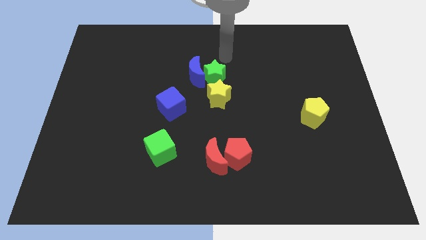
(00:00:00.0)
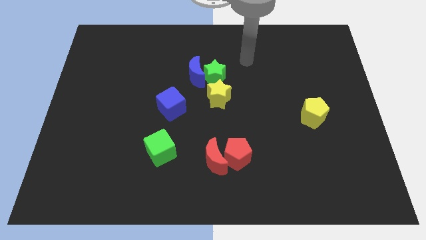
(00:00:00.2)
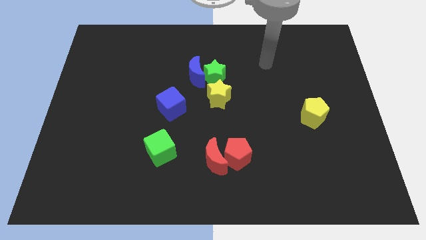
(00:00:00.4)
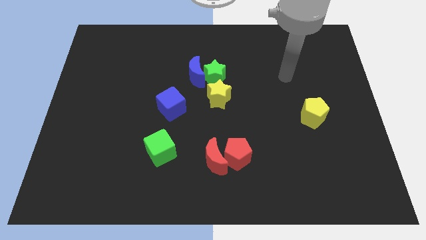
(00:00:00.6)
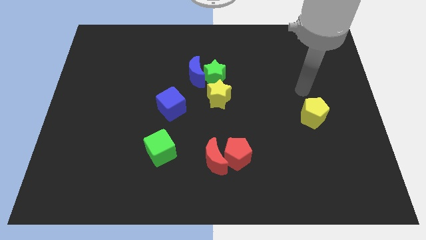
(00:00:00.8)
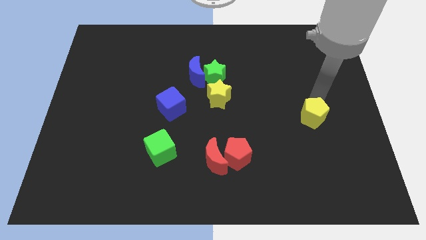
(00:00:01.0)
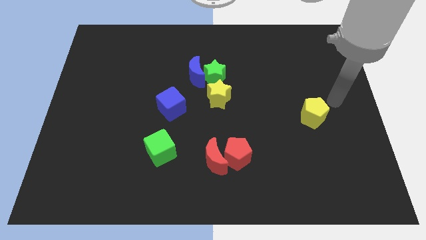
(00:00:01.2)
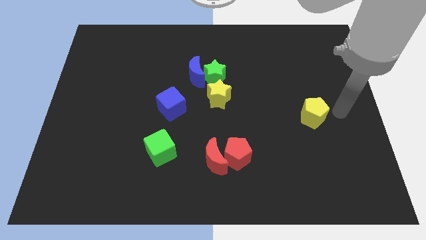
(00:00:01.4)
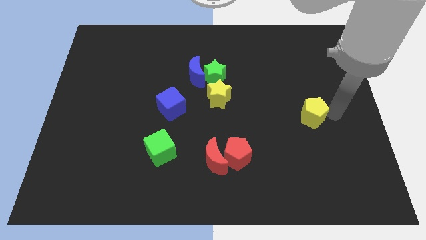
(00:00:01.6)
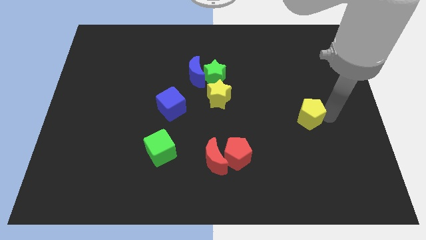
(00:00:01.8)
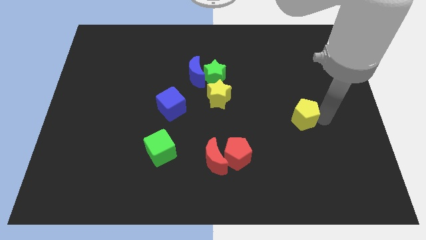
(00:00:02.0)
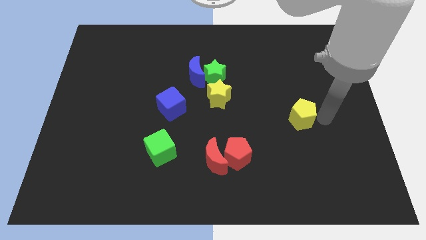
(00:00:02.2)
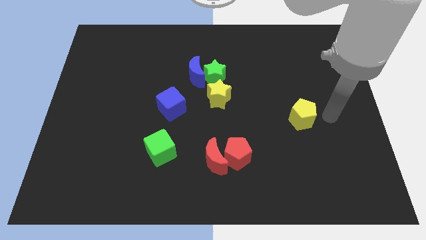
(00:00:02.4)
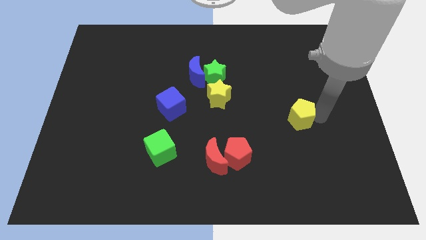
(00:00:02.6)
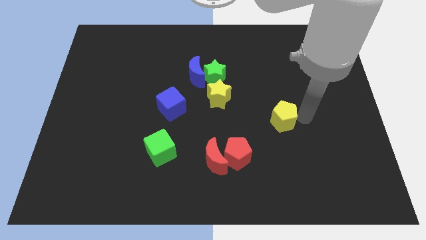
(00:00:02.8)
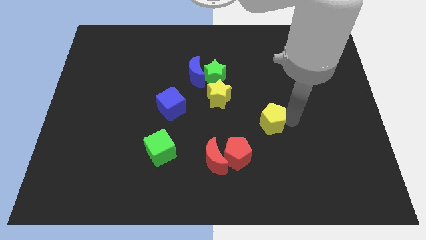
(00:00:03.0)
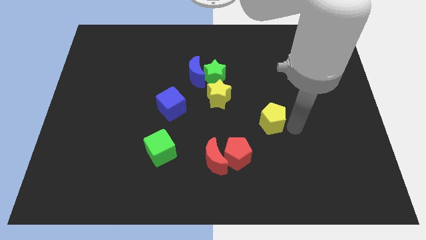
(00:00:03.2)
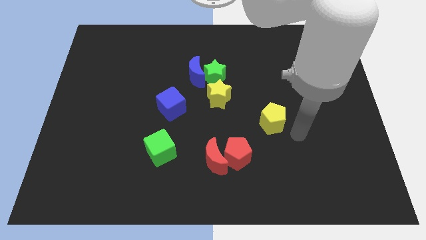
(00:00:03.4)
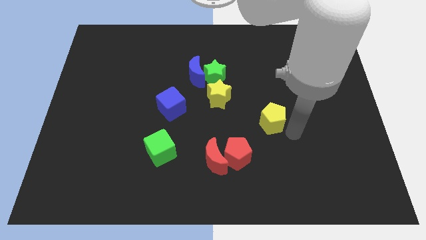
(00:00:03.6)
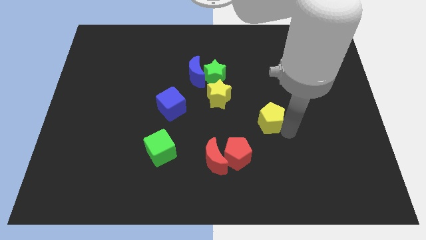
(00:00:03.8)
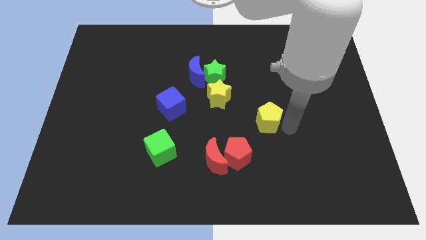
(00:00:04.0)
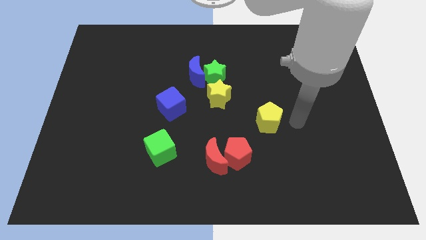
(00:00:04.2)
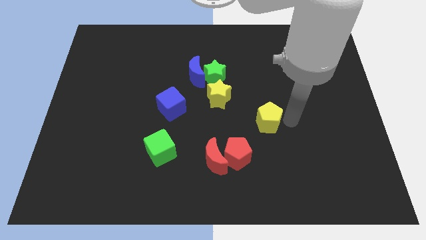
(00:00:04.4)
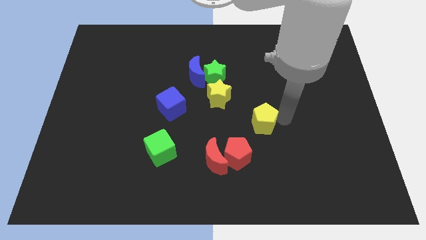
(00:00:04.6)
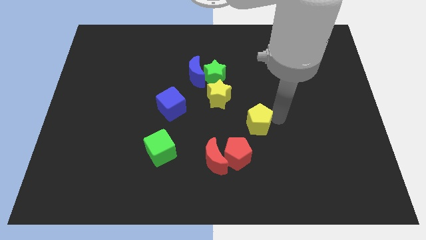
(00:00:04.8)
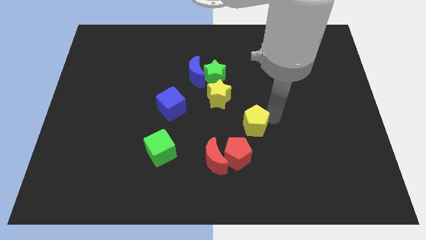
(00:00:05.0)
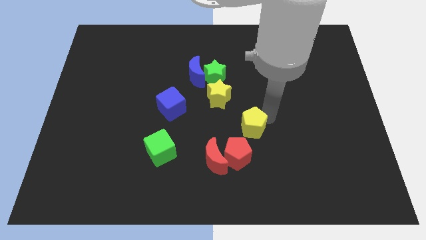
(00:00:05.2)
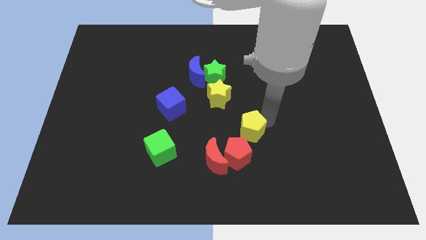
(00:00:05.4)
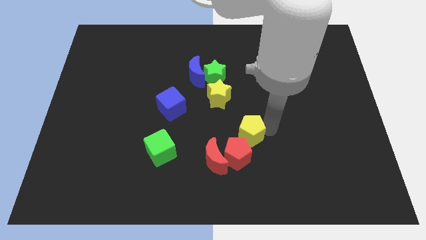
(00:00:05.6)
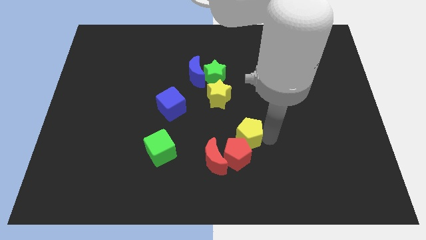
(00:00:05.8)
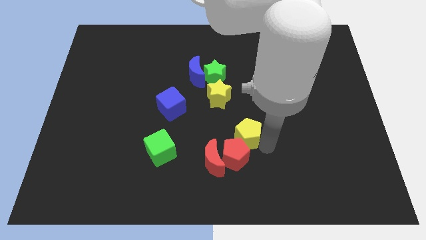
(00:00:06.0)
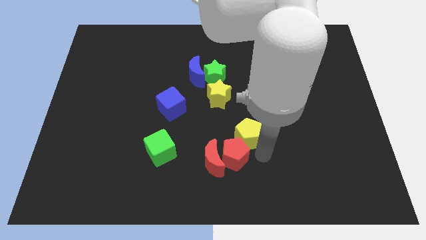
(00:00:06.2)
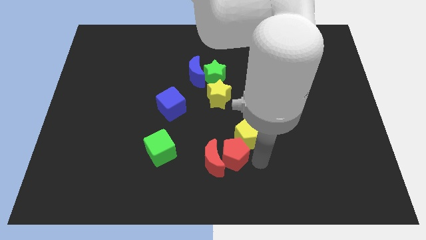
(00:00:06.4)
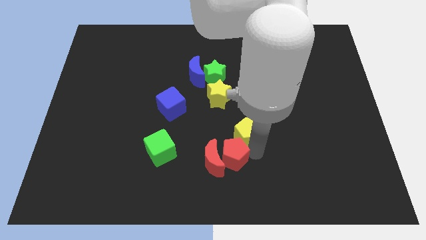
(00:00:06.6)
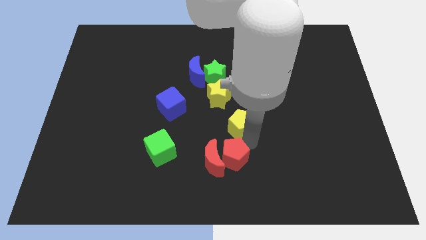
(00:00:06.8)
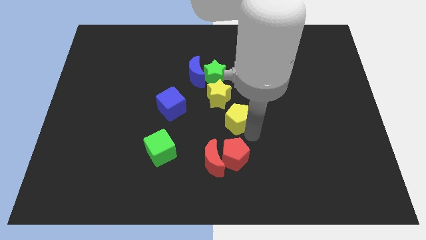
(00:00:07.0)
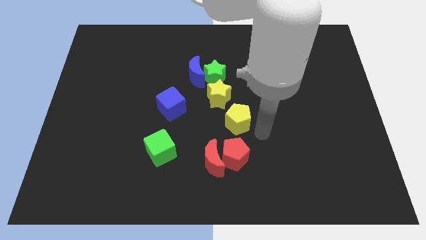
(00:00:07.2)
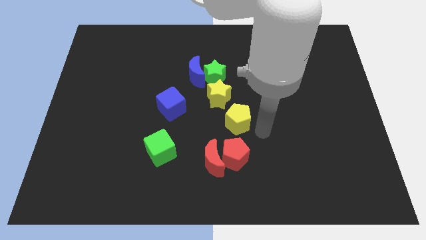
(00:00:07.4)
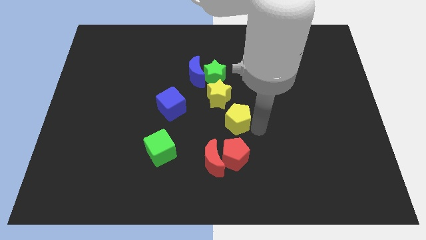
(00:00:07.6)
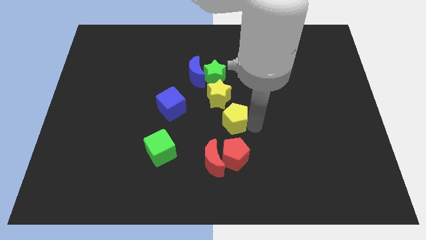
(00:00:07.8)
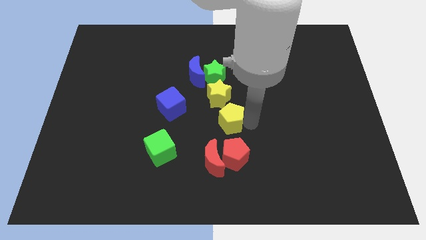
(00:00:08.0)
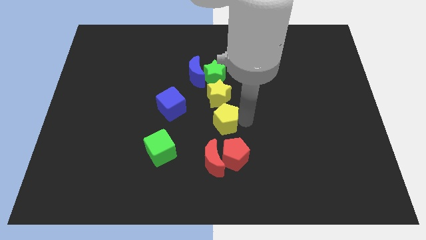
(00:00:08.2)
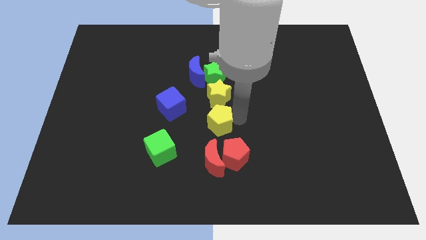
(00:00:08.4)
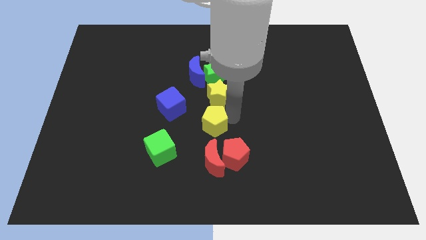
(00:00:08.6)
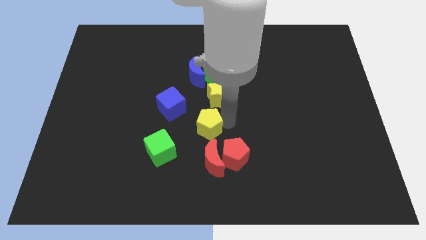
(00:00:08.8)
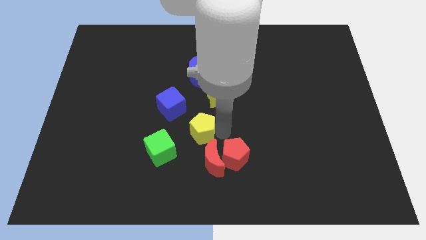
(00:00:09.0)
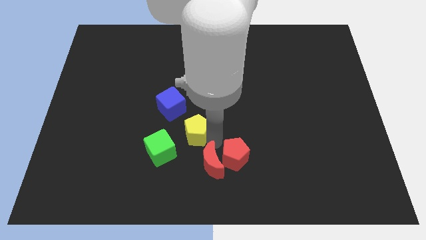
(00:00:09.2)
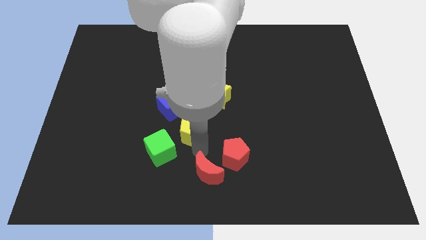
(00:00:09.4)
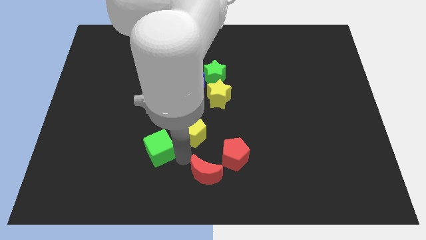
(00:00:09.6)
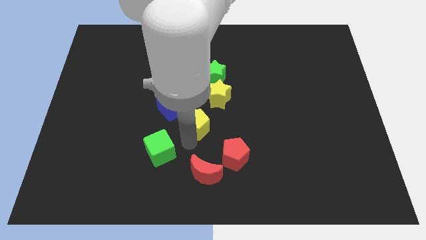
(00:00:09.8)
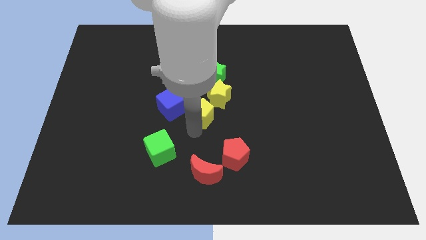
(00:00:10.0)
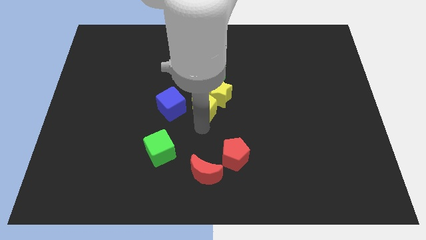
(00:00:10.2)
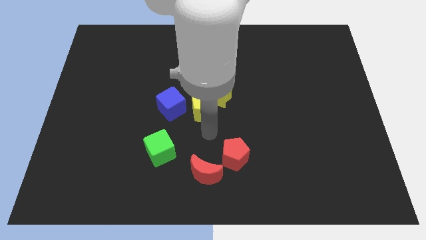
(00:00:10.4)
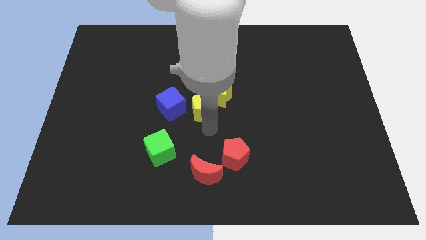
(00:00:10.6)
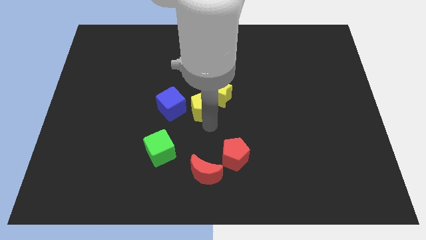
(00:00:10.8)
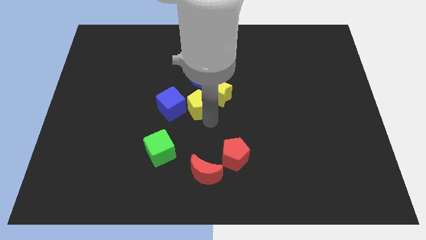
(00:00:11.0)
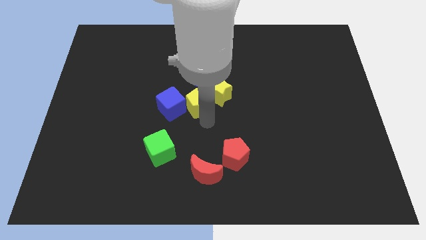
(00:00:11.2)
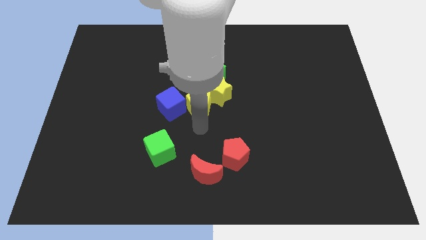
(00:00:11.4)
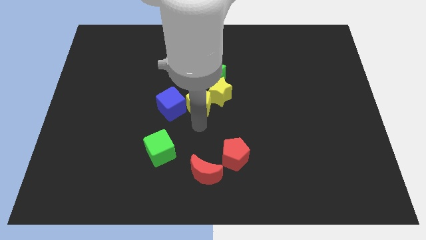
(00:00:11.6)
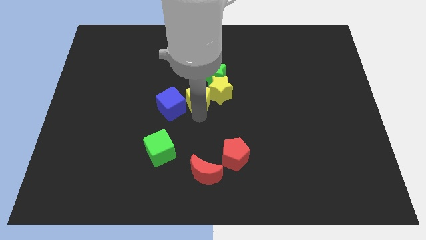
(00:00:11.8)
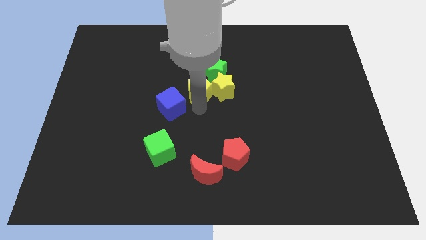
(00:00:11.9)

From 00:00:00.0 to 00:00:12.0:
push the yellow pentagon to the blue moon

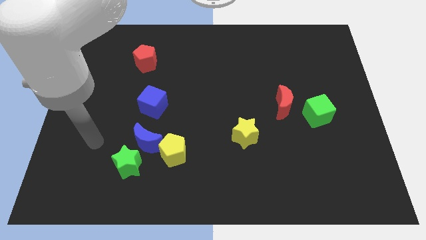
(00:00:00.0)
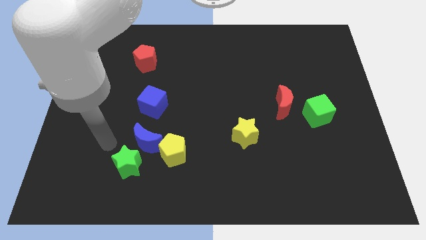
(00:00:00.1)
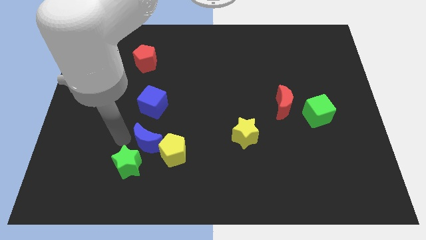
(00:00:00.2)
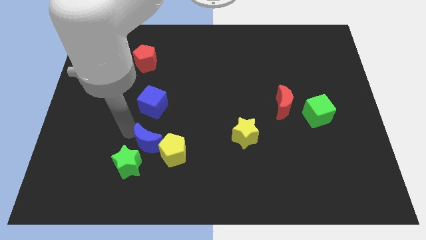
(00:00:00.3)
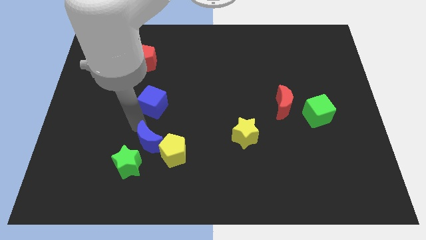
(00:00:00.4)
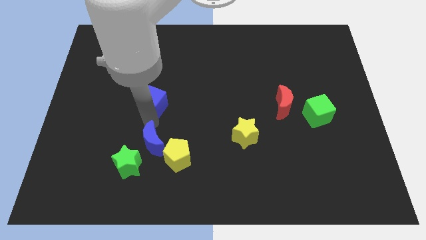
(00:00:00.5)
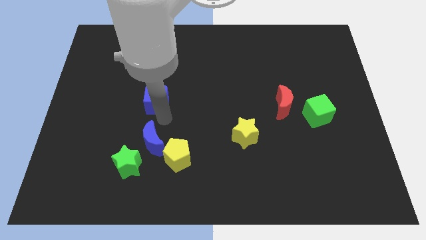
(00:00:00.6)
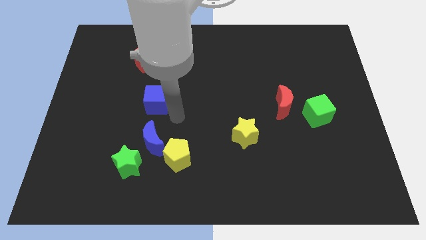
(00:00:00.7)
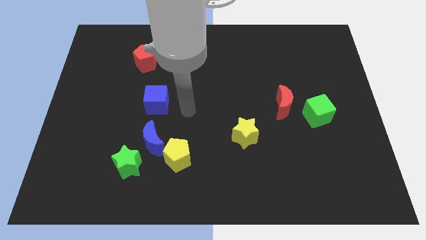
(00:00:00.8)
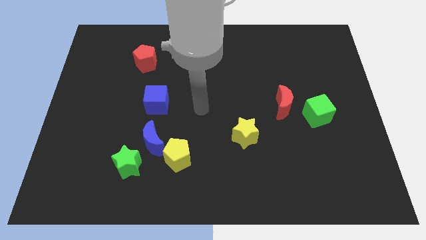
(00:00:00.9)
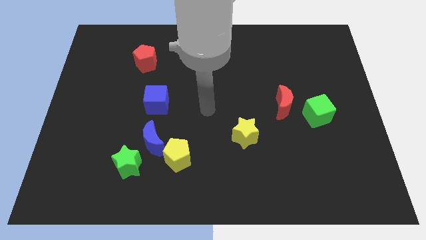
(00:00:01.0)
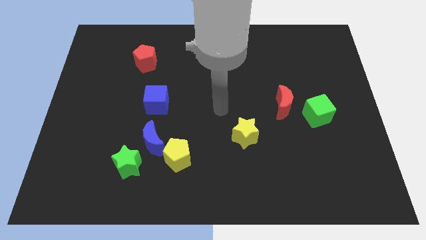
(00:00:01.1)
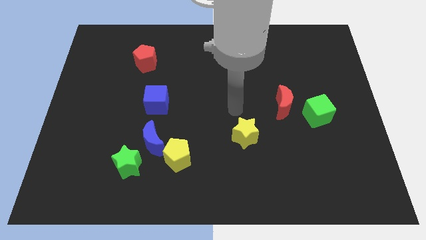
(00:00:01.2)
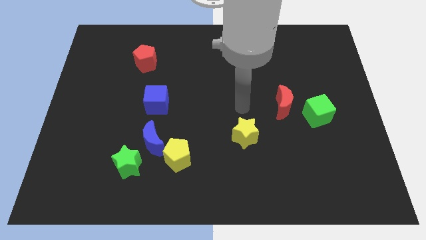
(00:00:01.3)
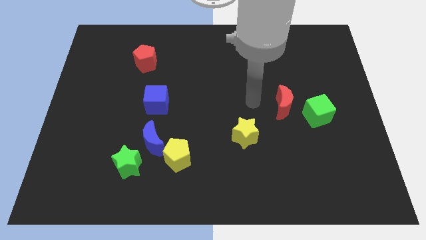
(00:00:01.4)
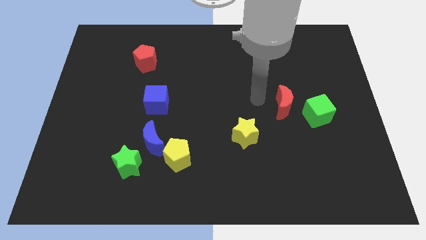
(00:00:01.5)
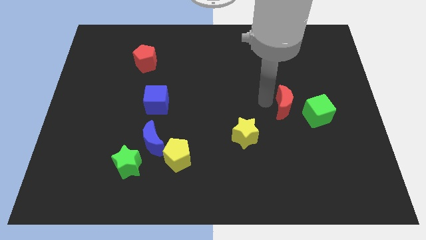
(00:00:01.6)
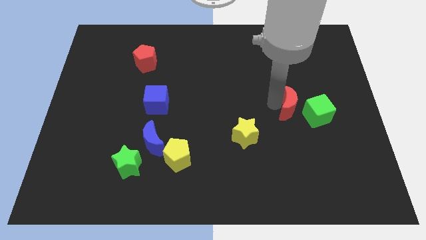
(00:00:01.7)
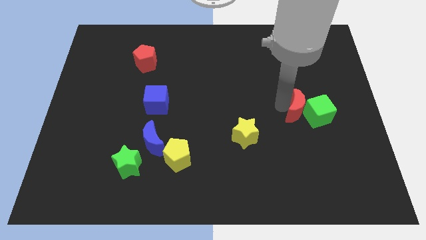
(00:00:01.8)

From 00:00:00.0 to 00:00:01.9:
put the red moon towards the green cube
